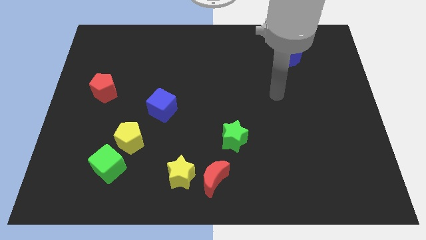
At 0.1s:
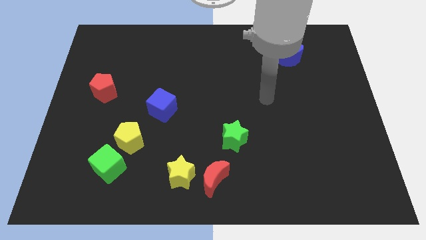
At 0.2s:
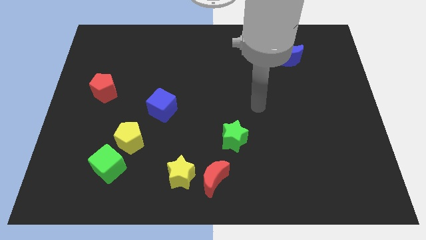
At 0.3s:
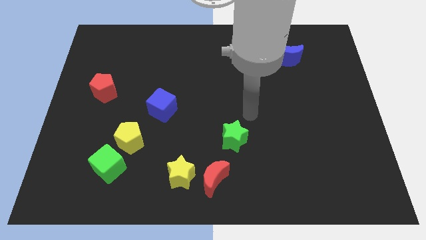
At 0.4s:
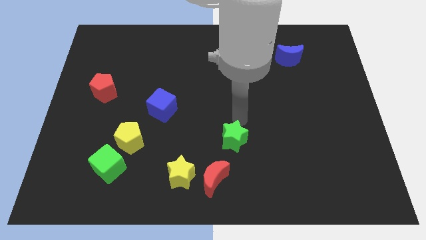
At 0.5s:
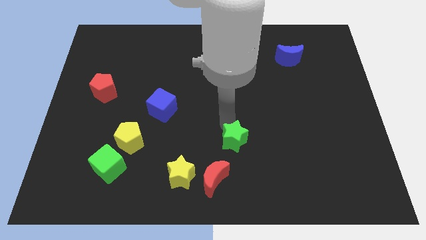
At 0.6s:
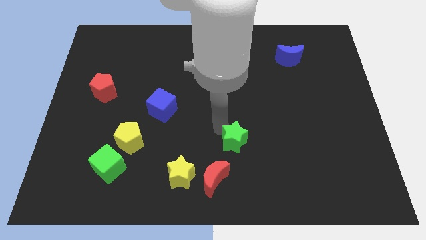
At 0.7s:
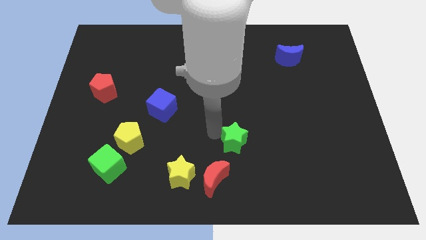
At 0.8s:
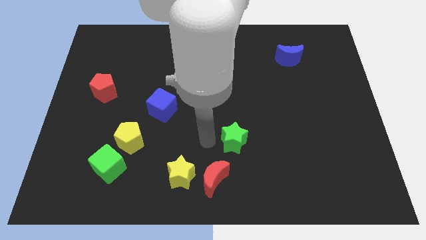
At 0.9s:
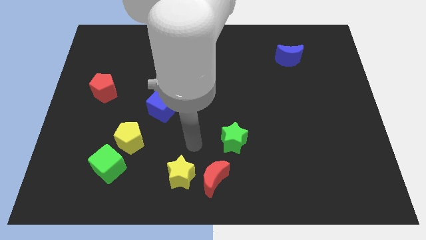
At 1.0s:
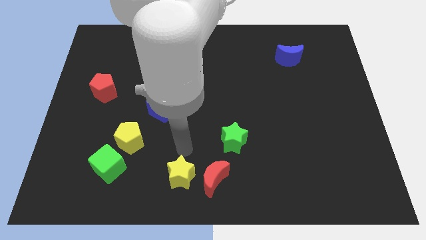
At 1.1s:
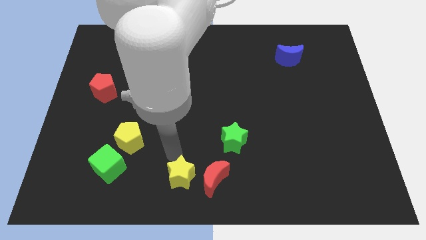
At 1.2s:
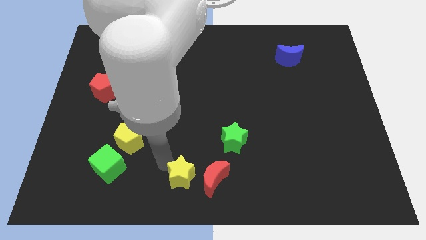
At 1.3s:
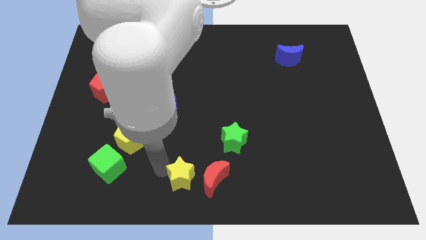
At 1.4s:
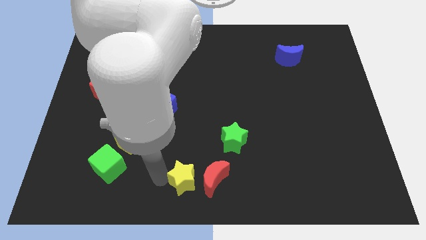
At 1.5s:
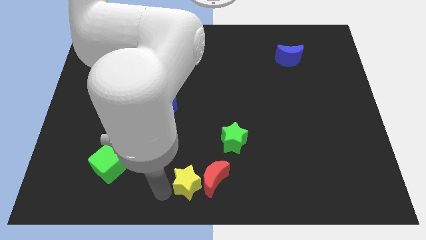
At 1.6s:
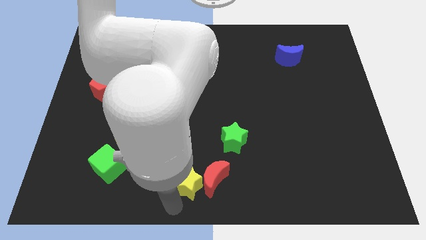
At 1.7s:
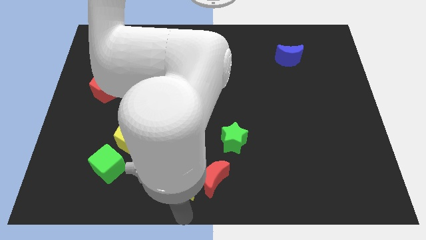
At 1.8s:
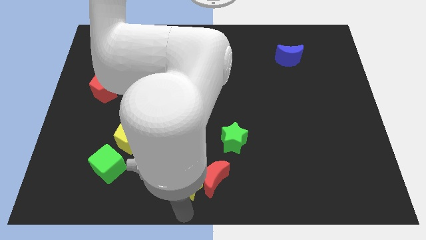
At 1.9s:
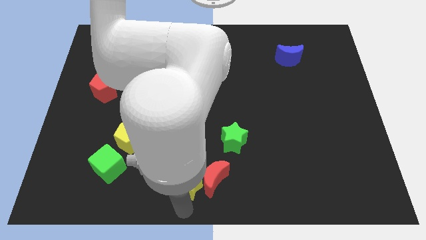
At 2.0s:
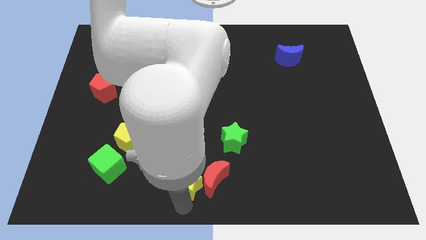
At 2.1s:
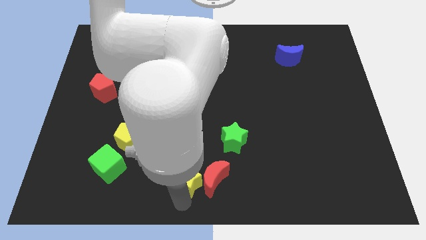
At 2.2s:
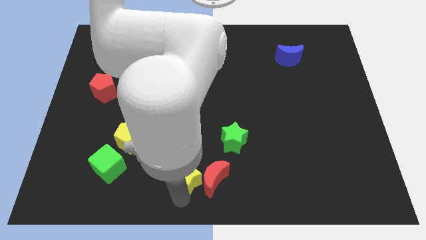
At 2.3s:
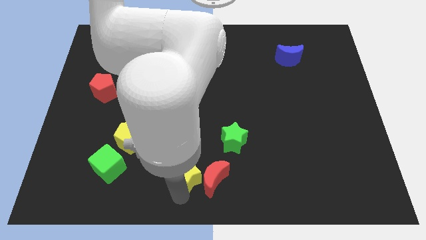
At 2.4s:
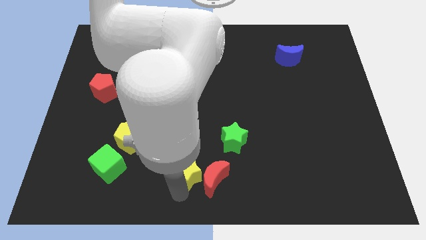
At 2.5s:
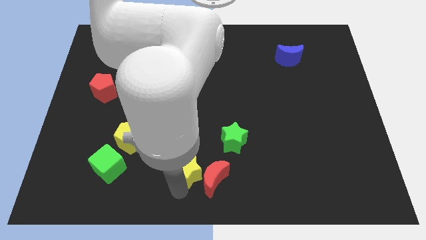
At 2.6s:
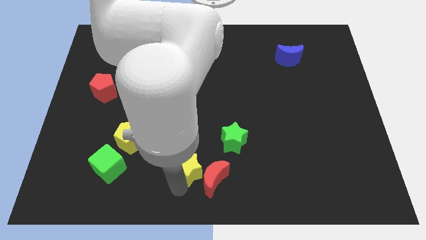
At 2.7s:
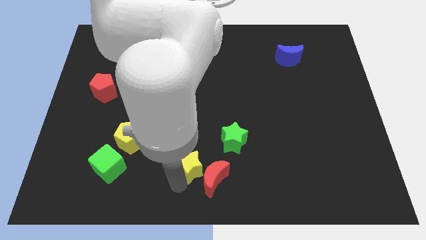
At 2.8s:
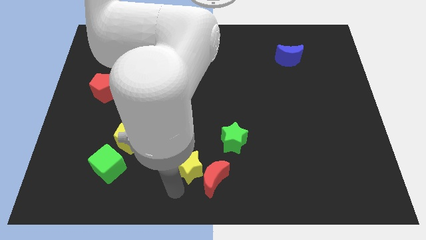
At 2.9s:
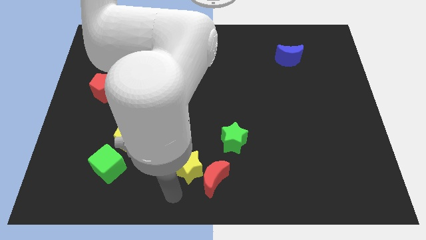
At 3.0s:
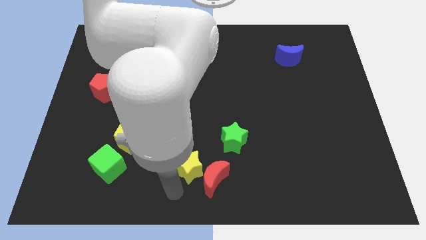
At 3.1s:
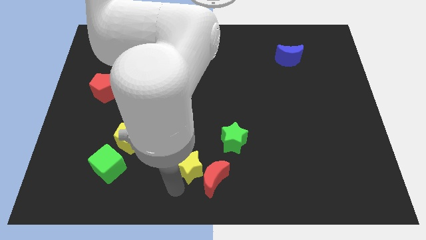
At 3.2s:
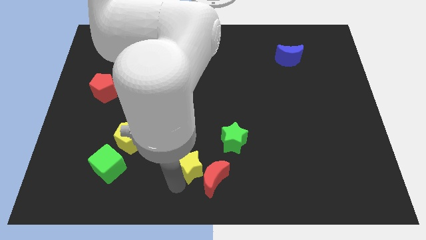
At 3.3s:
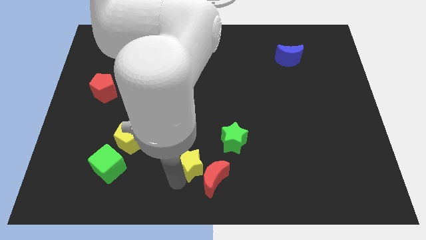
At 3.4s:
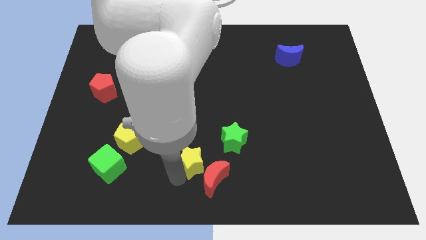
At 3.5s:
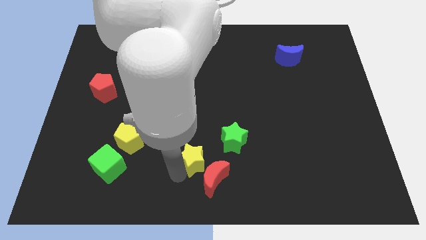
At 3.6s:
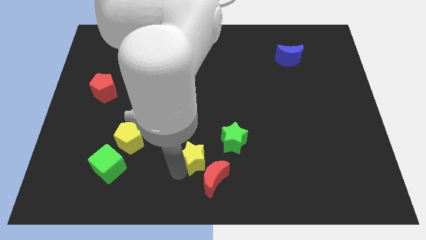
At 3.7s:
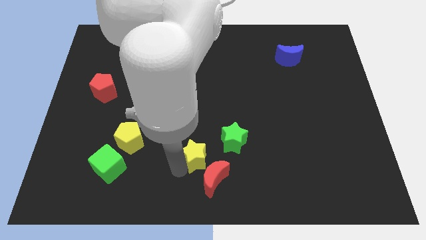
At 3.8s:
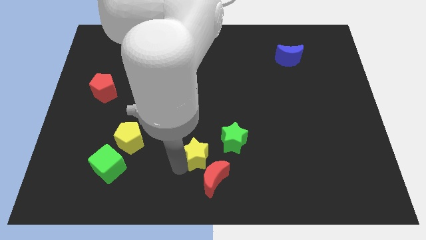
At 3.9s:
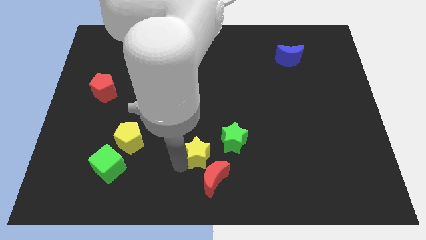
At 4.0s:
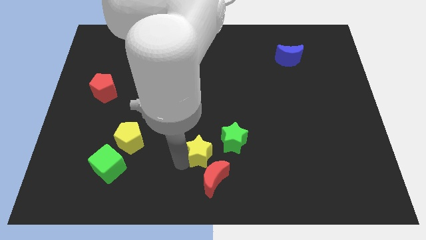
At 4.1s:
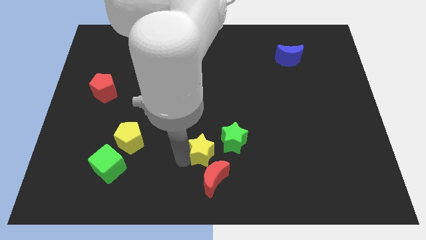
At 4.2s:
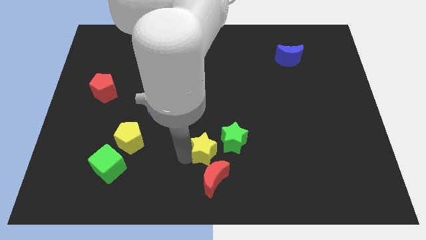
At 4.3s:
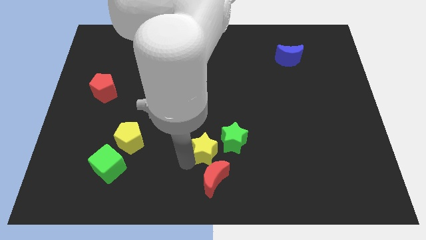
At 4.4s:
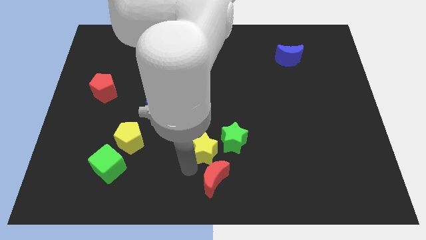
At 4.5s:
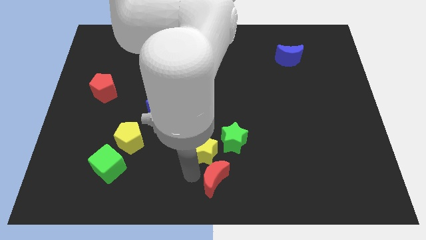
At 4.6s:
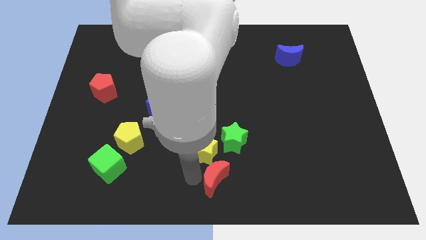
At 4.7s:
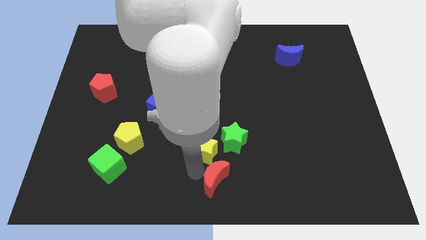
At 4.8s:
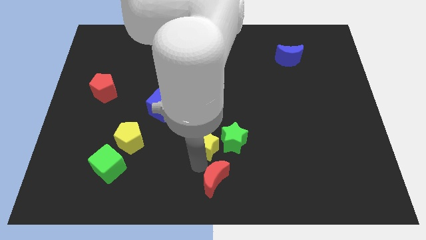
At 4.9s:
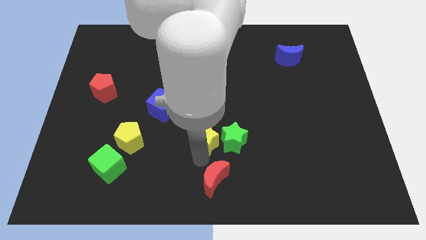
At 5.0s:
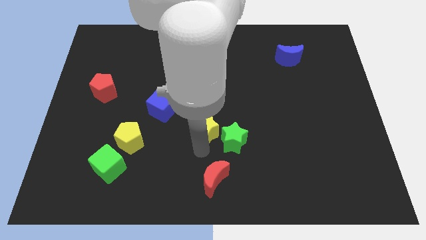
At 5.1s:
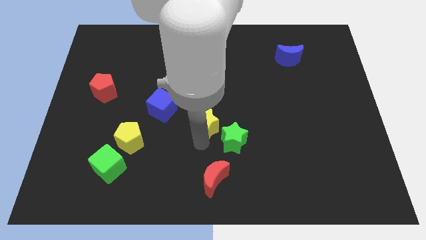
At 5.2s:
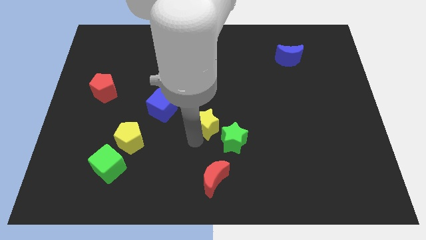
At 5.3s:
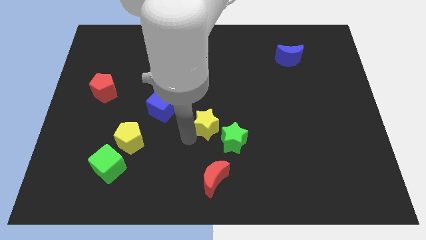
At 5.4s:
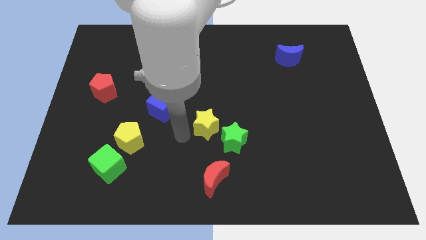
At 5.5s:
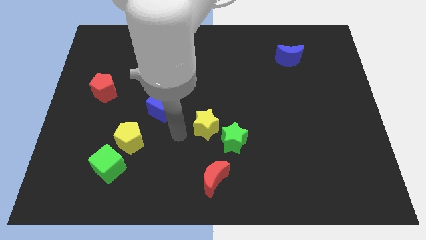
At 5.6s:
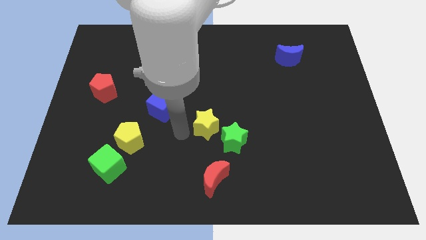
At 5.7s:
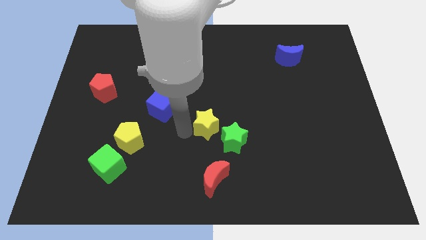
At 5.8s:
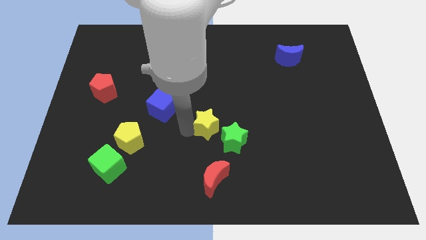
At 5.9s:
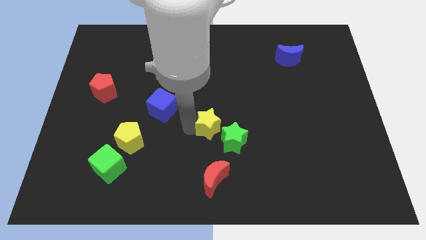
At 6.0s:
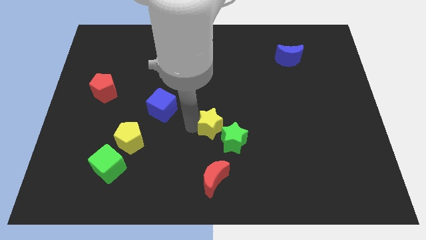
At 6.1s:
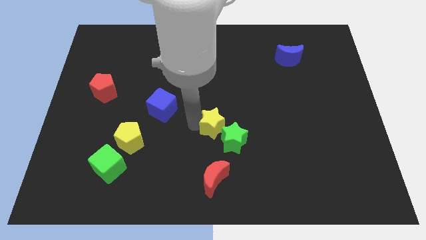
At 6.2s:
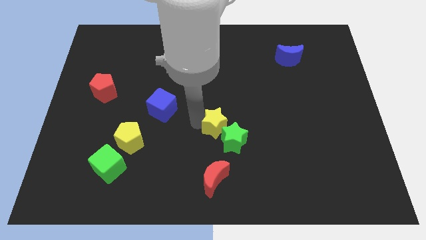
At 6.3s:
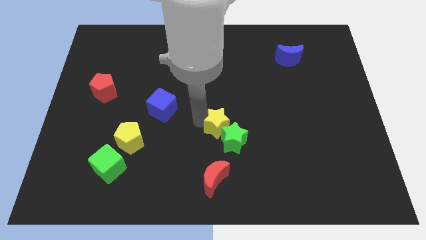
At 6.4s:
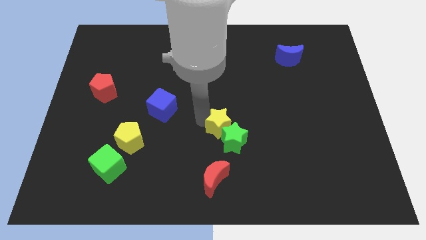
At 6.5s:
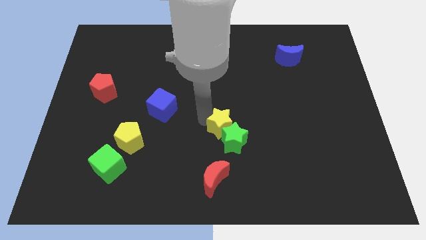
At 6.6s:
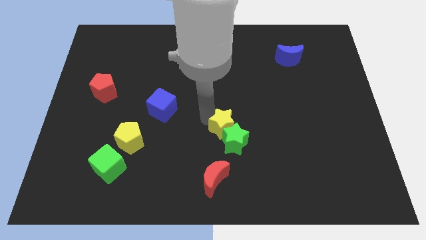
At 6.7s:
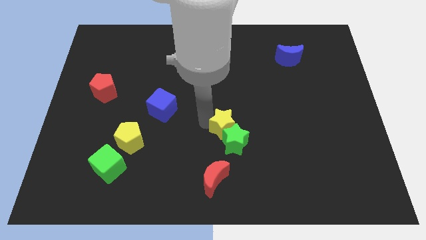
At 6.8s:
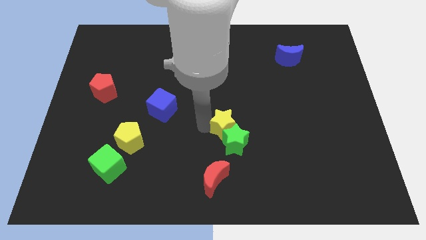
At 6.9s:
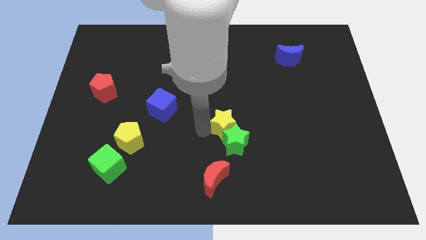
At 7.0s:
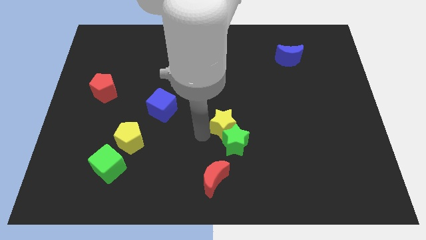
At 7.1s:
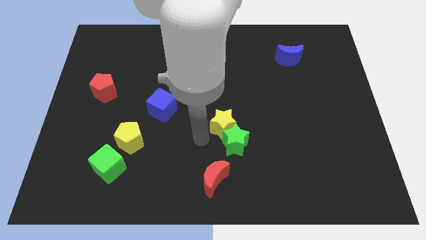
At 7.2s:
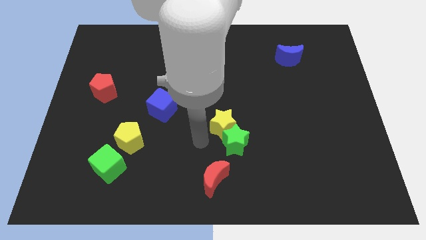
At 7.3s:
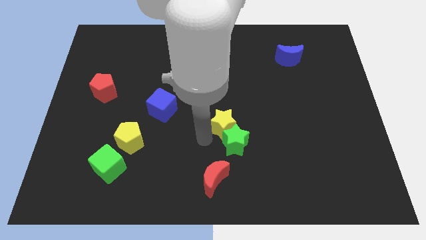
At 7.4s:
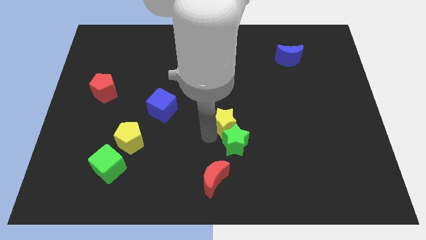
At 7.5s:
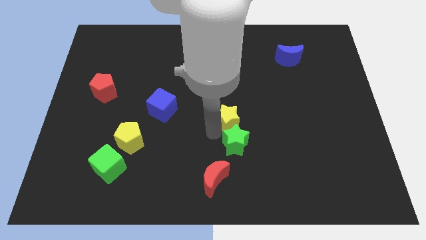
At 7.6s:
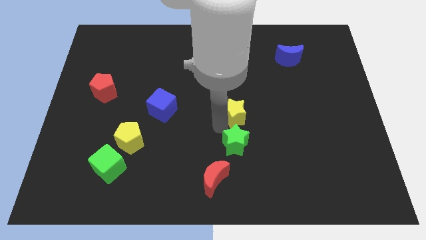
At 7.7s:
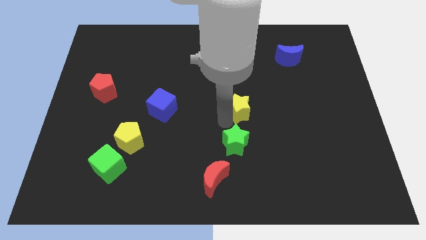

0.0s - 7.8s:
slide the yellow star diagonally up and right

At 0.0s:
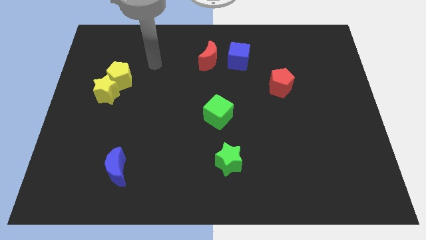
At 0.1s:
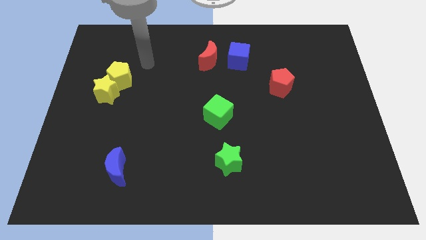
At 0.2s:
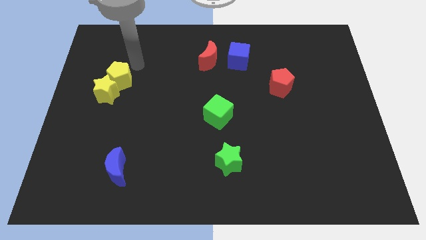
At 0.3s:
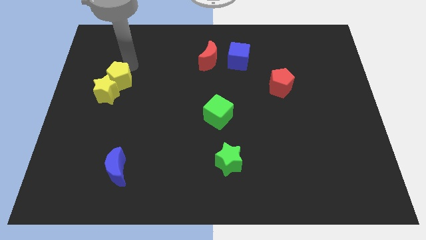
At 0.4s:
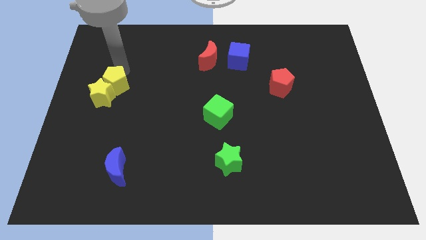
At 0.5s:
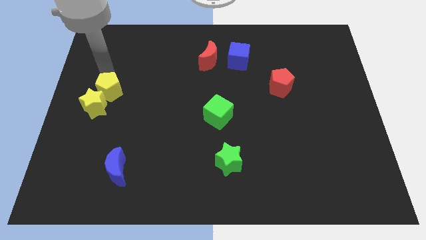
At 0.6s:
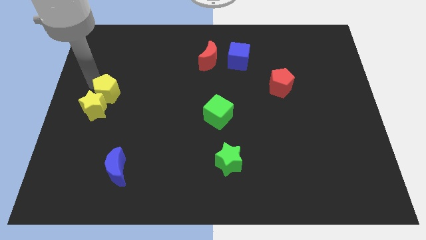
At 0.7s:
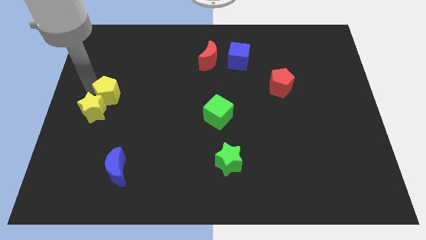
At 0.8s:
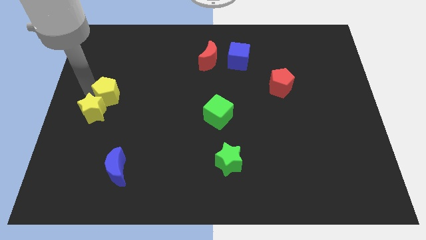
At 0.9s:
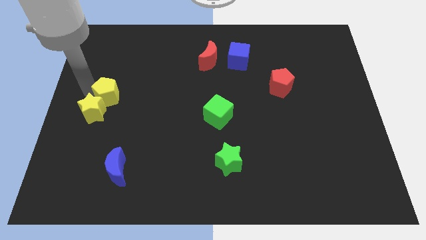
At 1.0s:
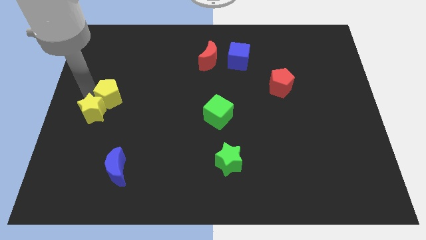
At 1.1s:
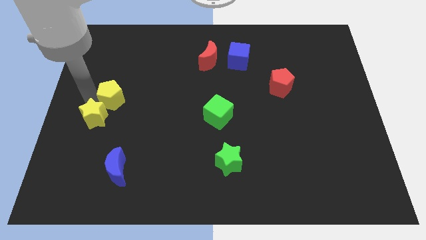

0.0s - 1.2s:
move the yellow star downwards a little
